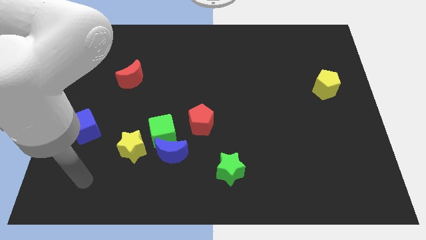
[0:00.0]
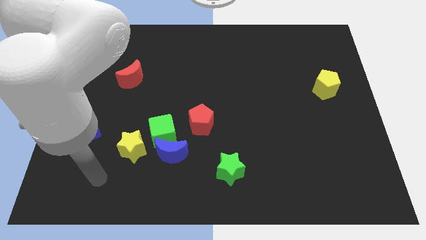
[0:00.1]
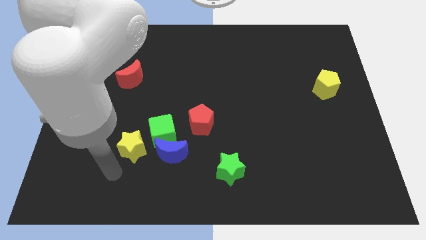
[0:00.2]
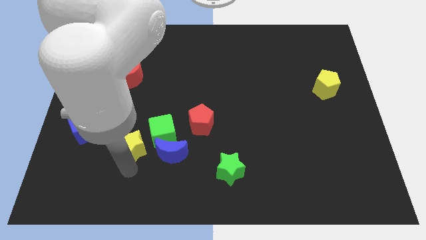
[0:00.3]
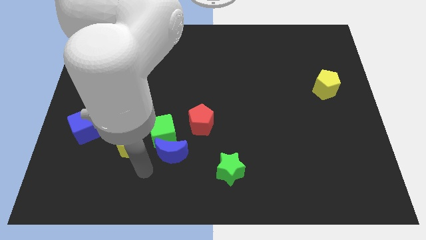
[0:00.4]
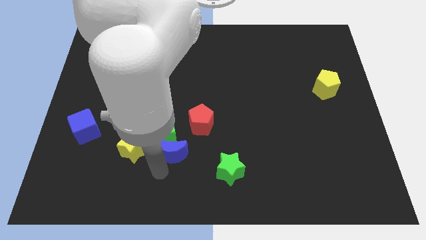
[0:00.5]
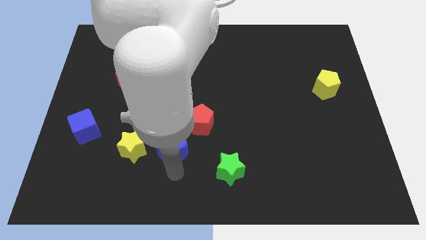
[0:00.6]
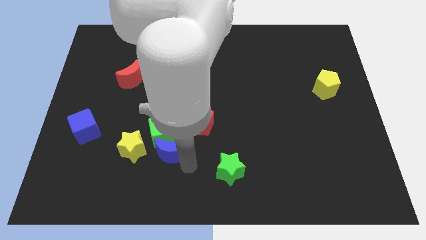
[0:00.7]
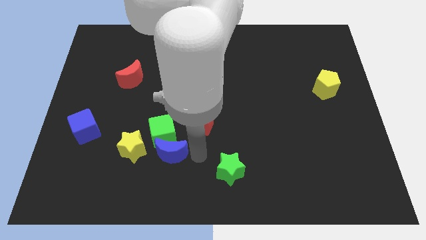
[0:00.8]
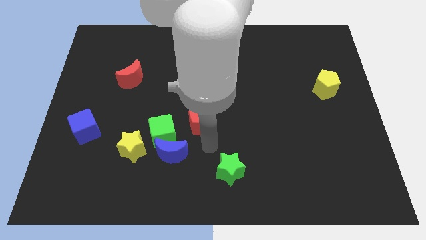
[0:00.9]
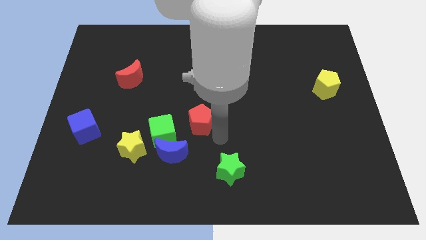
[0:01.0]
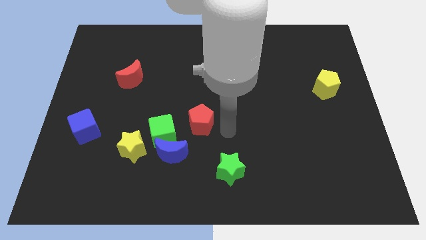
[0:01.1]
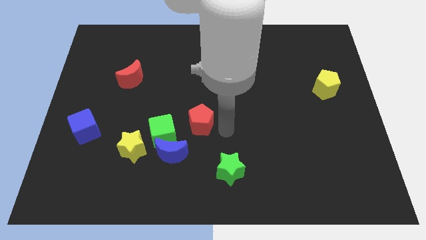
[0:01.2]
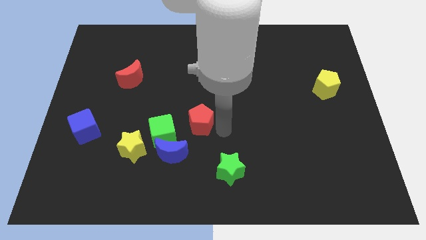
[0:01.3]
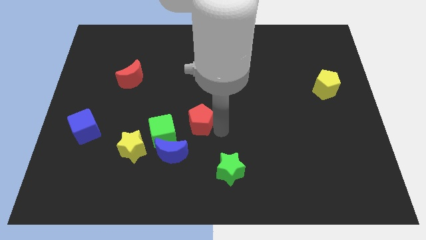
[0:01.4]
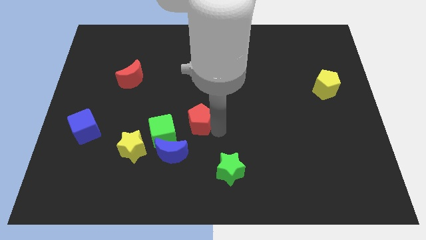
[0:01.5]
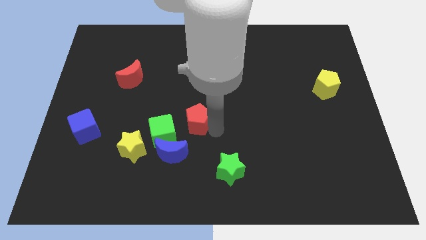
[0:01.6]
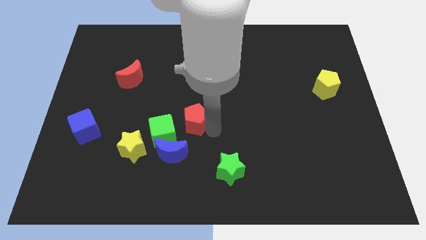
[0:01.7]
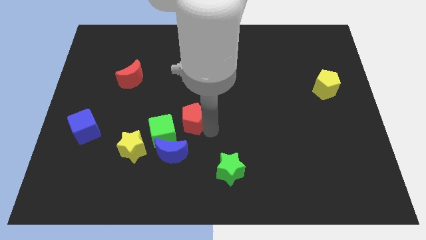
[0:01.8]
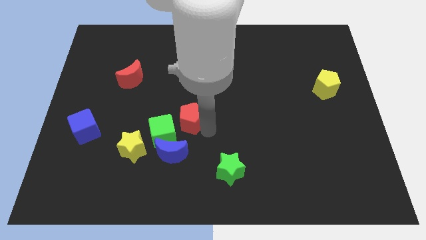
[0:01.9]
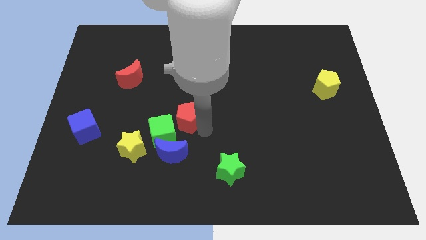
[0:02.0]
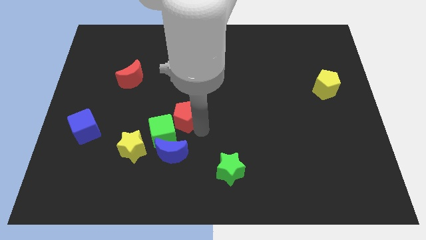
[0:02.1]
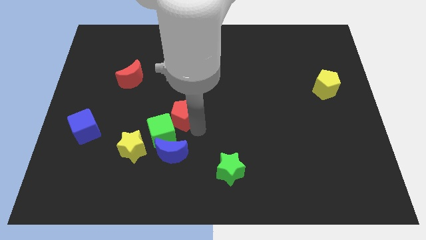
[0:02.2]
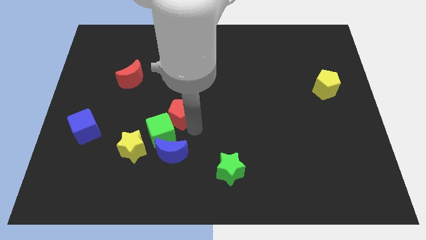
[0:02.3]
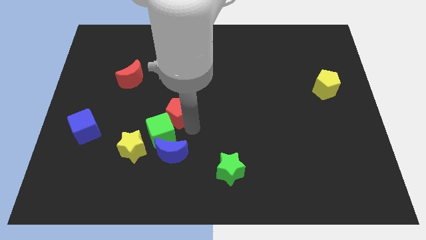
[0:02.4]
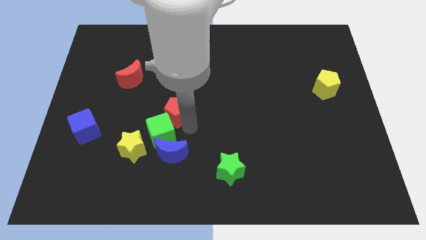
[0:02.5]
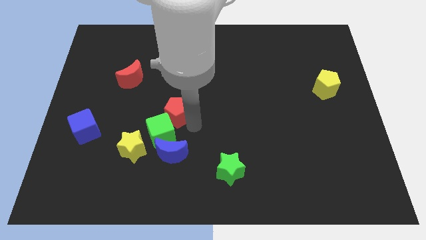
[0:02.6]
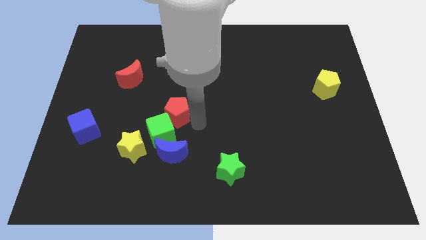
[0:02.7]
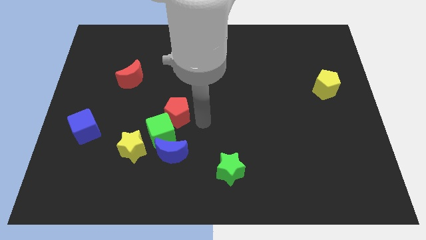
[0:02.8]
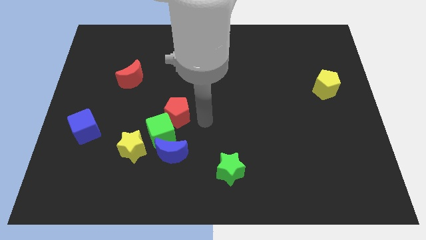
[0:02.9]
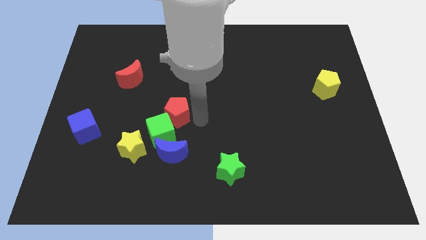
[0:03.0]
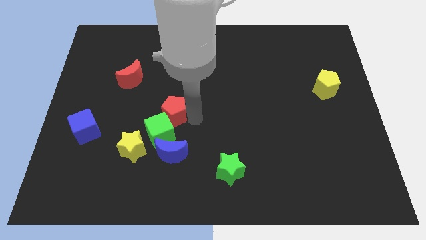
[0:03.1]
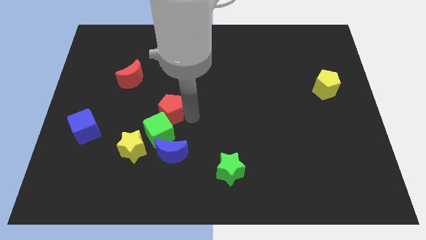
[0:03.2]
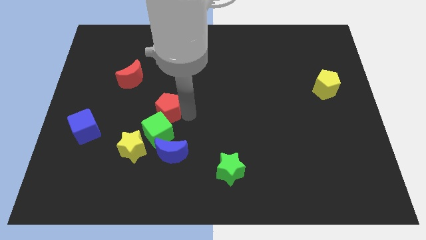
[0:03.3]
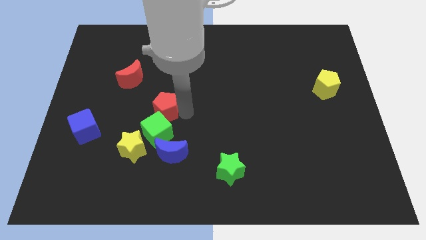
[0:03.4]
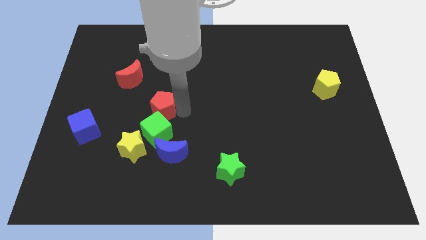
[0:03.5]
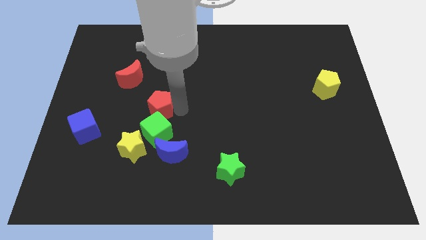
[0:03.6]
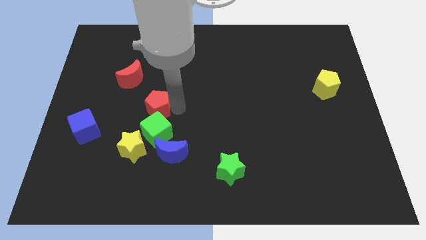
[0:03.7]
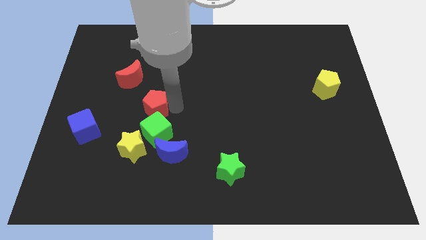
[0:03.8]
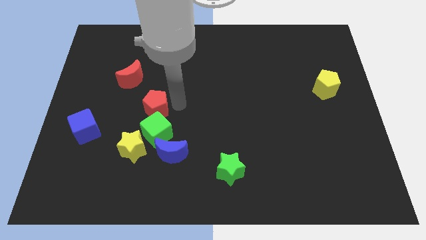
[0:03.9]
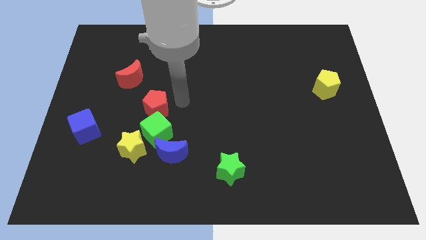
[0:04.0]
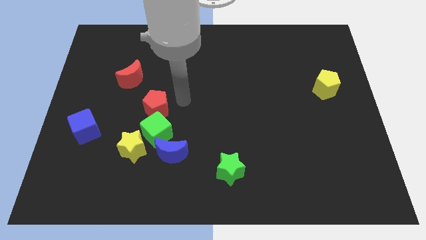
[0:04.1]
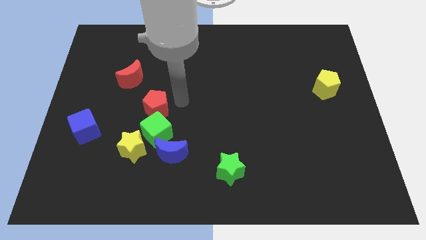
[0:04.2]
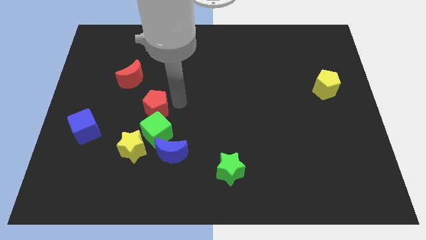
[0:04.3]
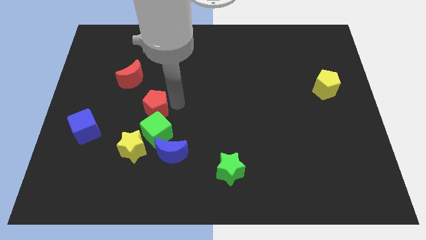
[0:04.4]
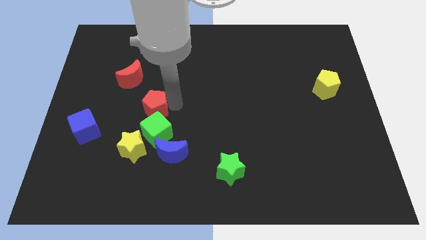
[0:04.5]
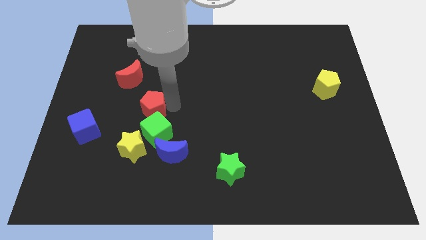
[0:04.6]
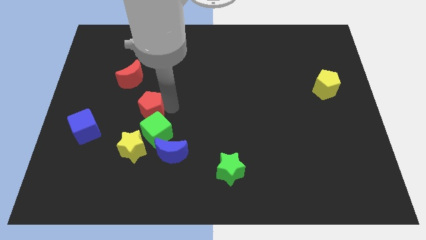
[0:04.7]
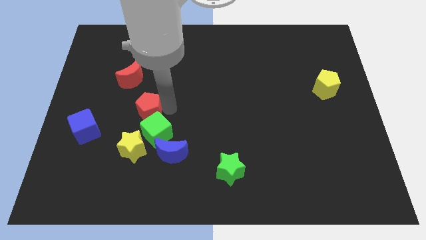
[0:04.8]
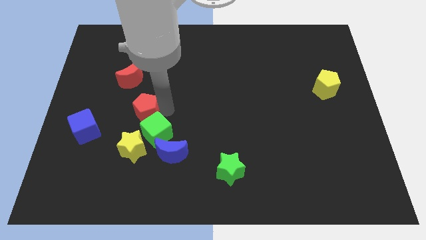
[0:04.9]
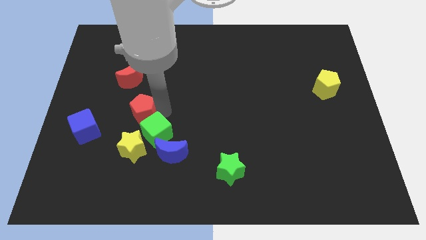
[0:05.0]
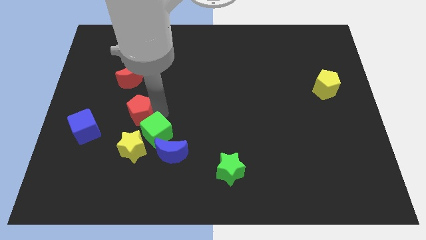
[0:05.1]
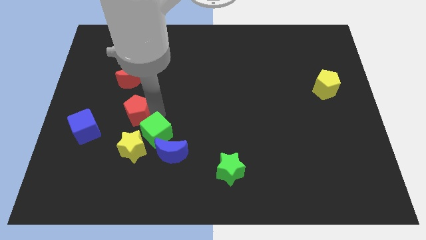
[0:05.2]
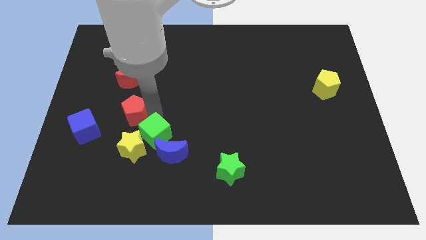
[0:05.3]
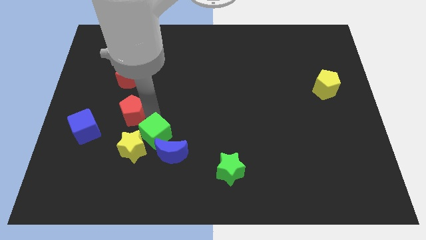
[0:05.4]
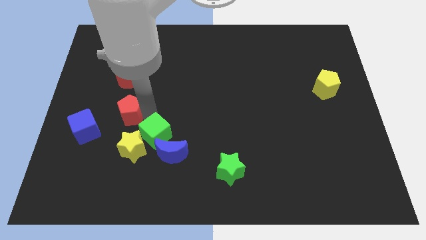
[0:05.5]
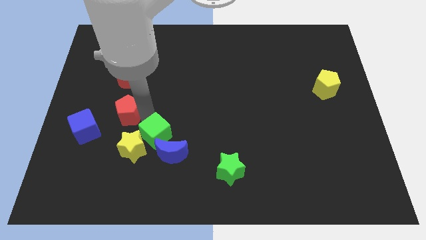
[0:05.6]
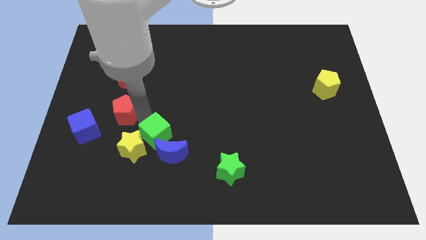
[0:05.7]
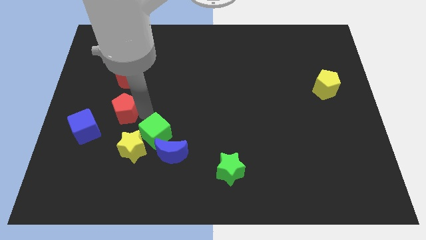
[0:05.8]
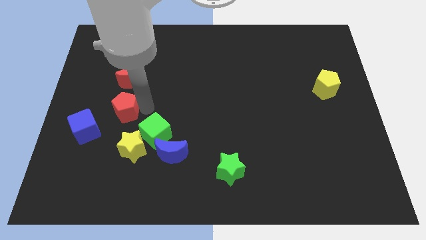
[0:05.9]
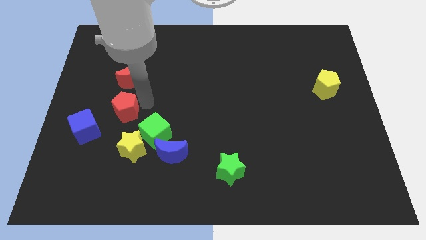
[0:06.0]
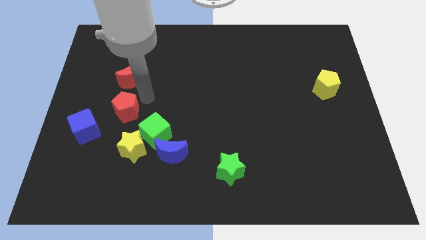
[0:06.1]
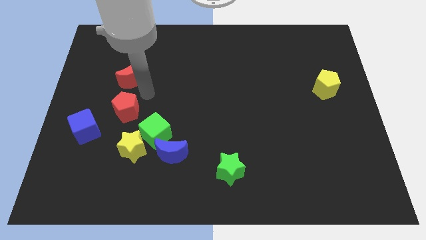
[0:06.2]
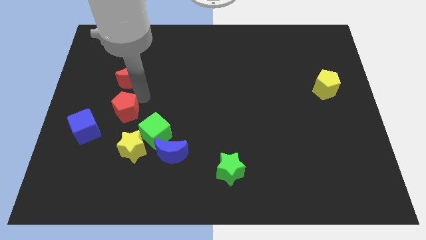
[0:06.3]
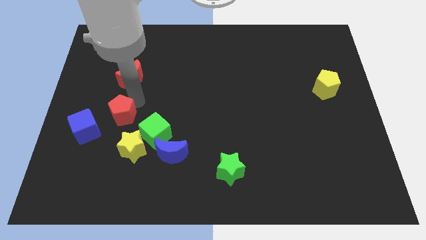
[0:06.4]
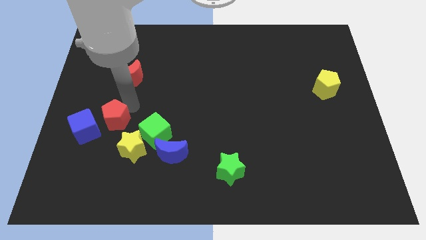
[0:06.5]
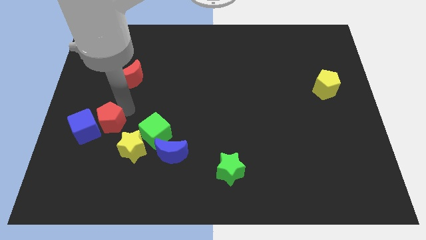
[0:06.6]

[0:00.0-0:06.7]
put the red pentagon towards the blue cube

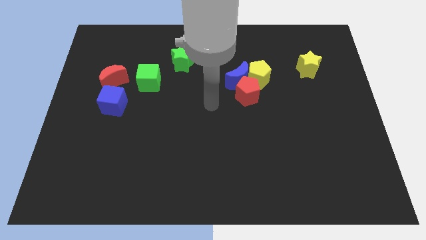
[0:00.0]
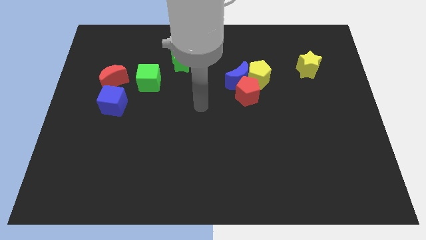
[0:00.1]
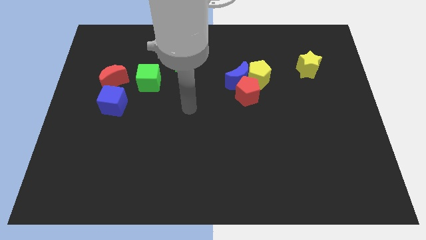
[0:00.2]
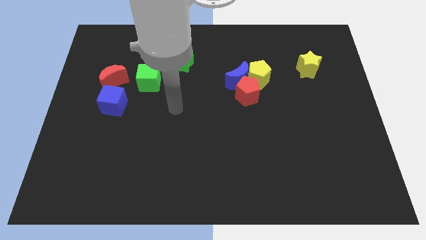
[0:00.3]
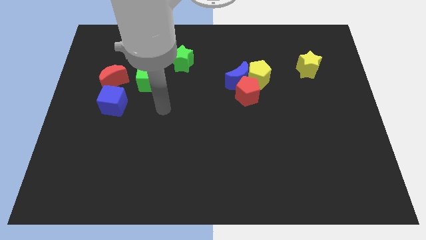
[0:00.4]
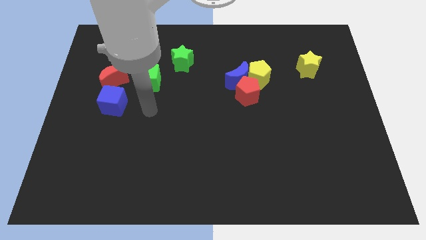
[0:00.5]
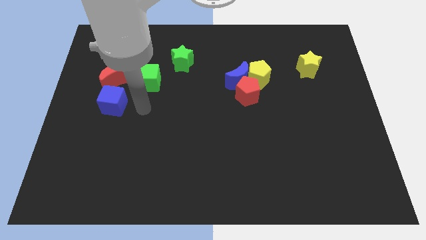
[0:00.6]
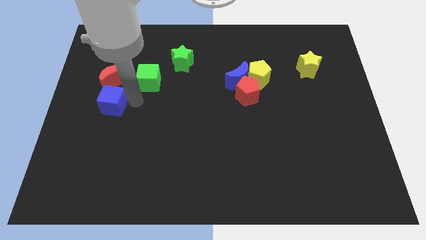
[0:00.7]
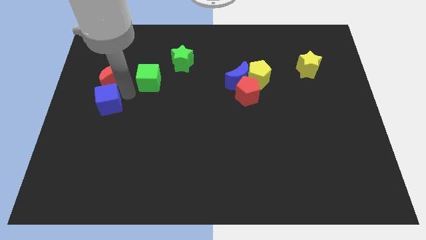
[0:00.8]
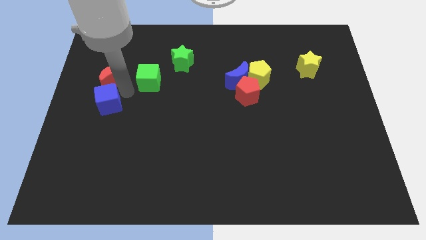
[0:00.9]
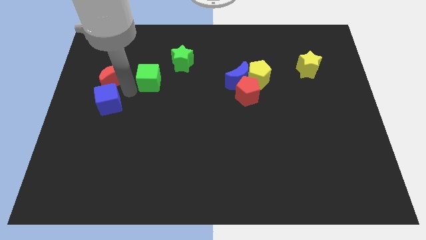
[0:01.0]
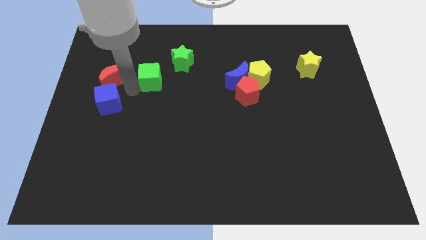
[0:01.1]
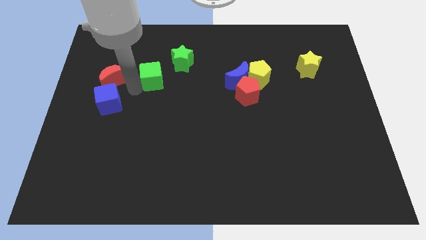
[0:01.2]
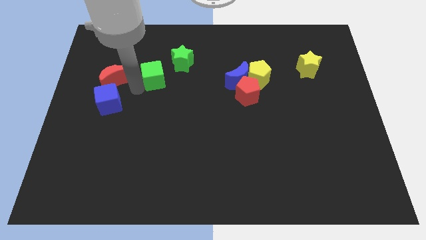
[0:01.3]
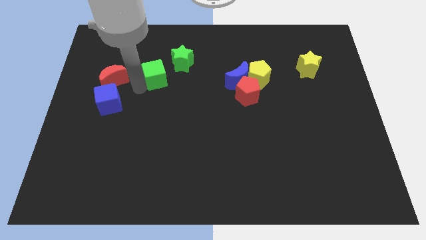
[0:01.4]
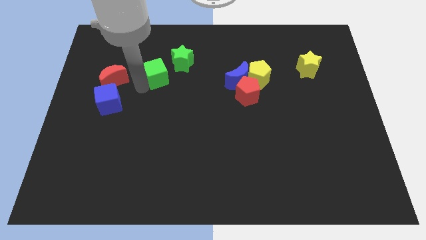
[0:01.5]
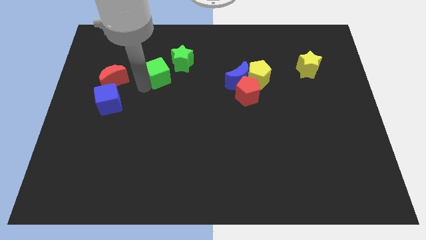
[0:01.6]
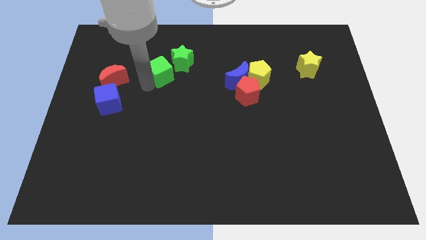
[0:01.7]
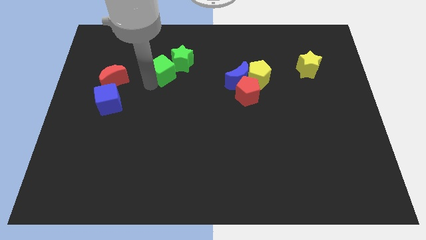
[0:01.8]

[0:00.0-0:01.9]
push the green cube next to the green star
